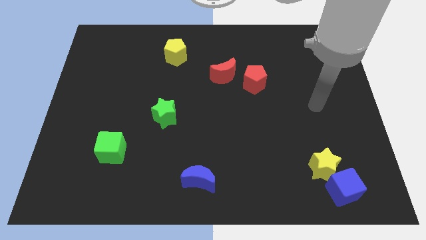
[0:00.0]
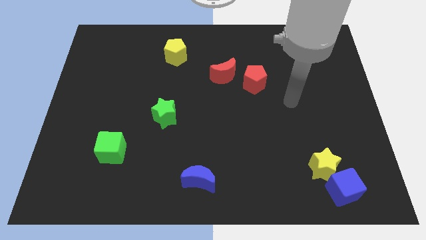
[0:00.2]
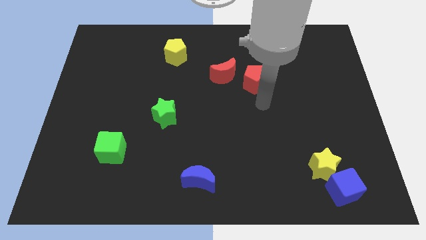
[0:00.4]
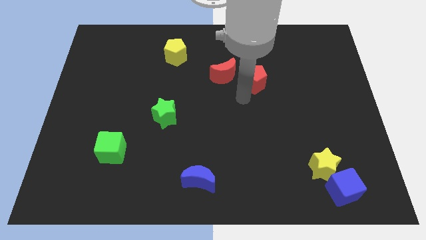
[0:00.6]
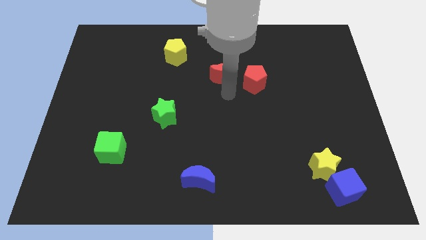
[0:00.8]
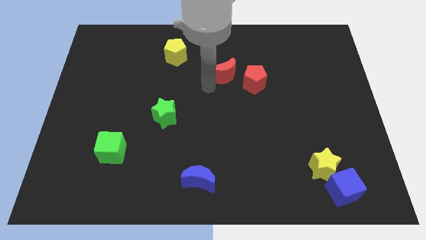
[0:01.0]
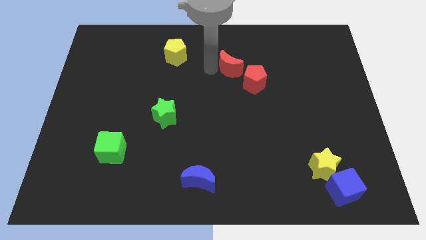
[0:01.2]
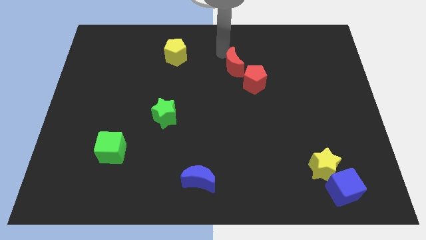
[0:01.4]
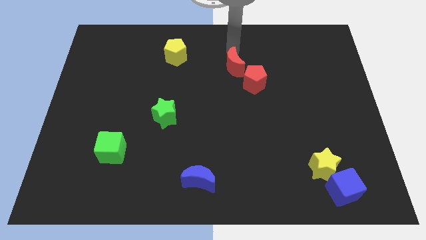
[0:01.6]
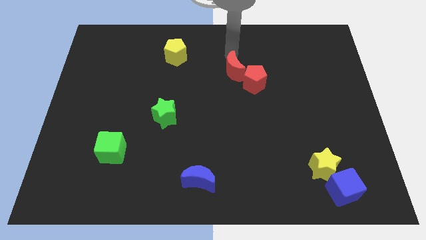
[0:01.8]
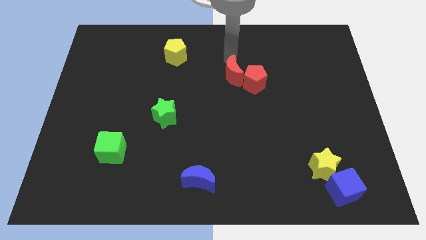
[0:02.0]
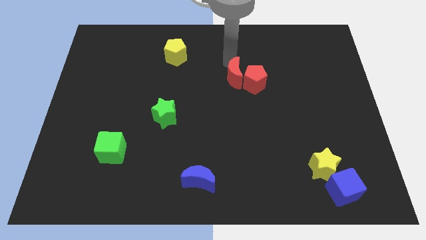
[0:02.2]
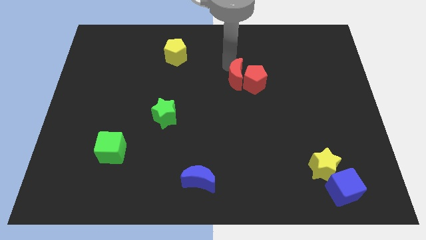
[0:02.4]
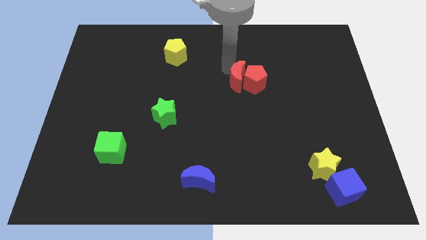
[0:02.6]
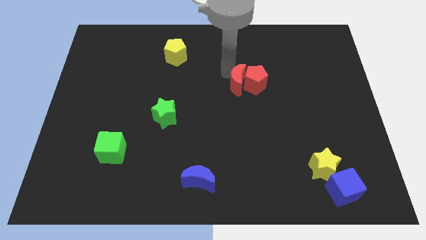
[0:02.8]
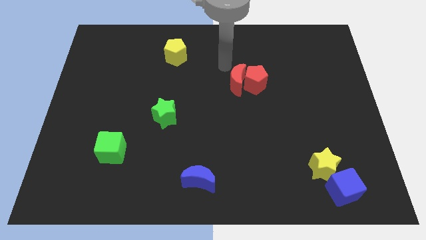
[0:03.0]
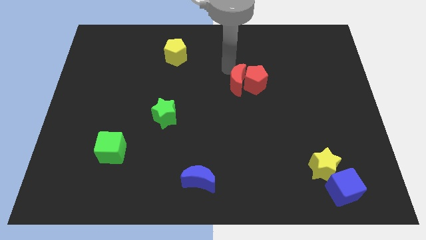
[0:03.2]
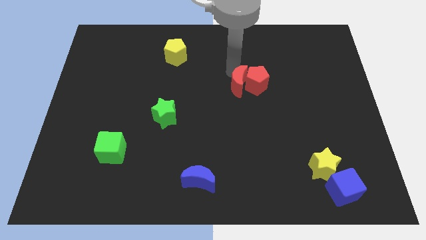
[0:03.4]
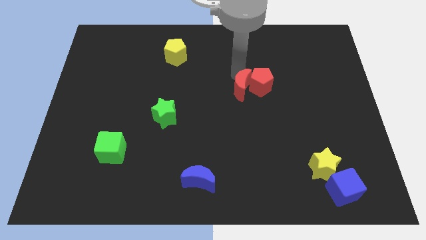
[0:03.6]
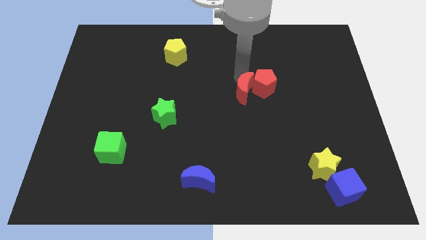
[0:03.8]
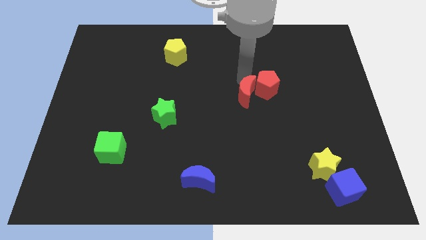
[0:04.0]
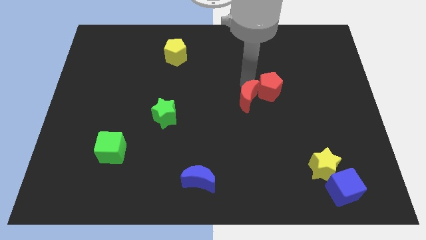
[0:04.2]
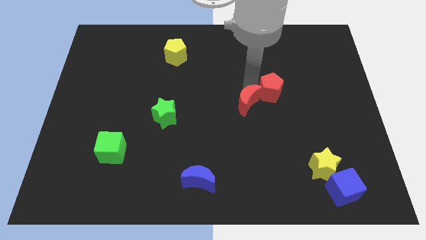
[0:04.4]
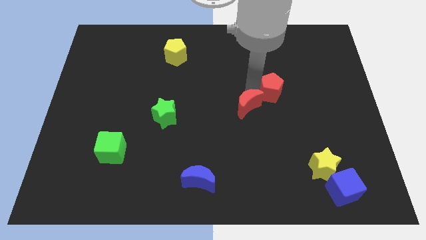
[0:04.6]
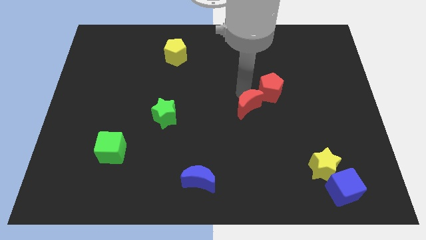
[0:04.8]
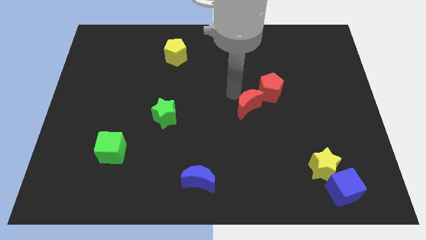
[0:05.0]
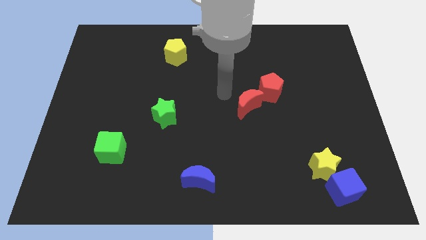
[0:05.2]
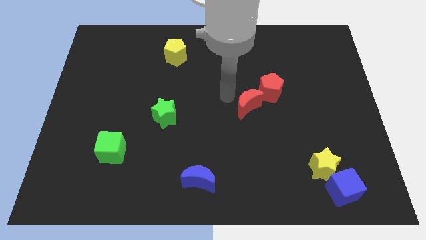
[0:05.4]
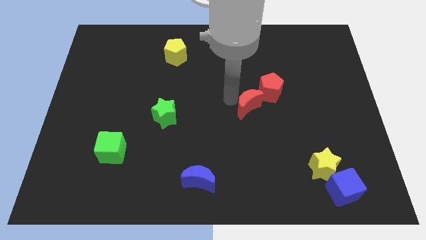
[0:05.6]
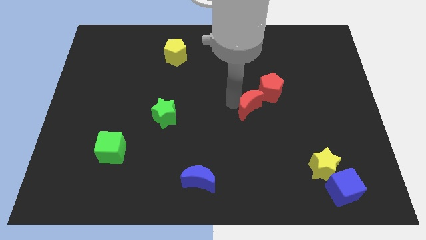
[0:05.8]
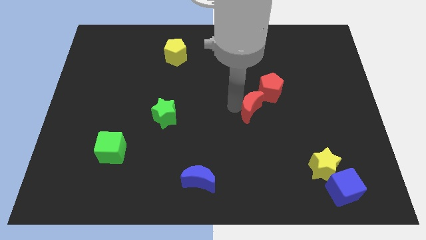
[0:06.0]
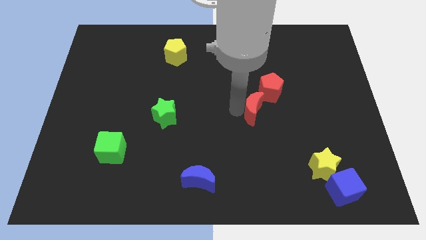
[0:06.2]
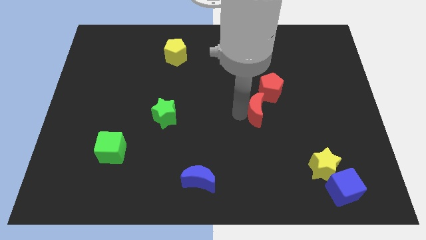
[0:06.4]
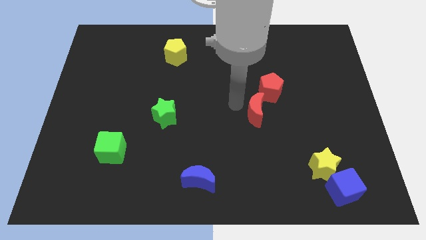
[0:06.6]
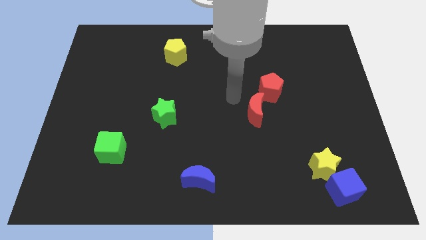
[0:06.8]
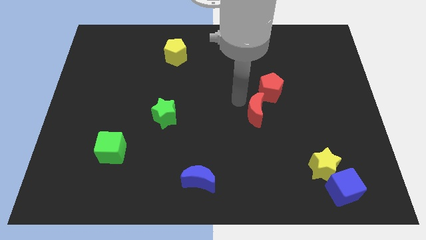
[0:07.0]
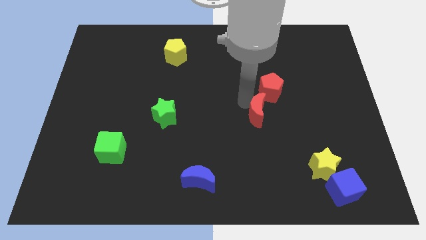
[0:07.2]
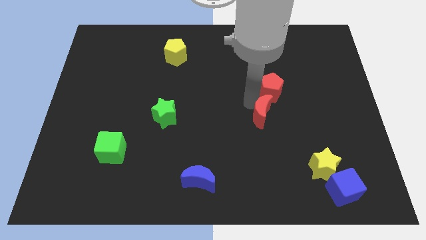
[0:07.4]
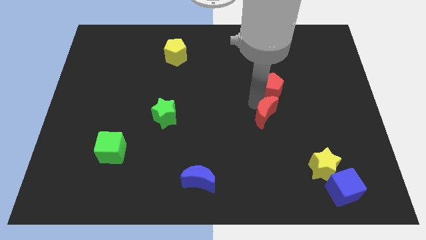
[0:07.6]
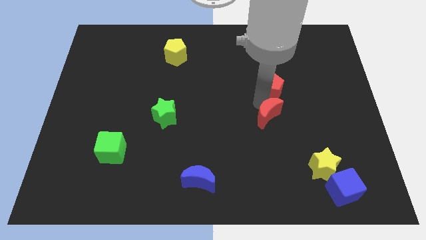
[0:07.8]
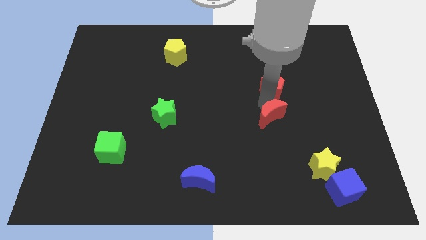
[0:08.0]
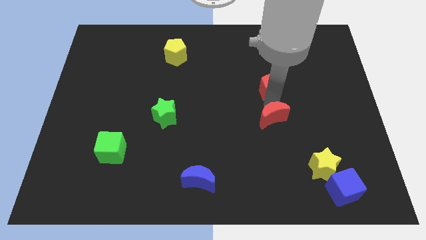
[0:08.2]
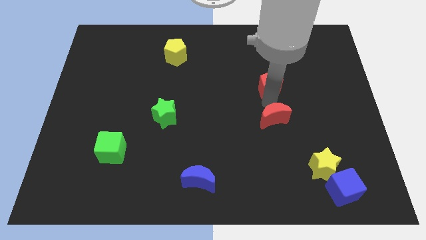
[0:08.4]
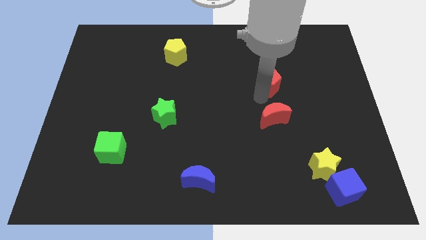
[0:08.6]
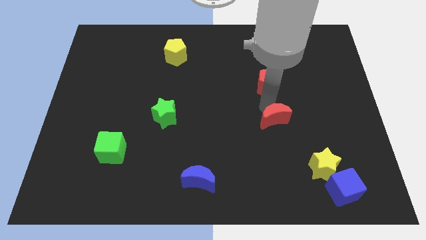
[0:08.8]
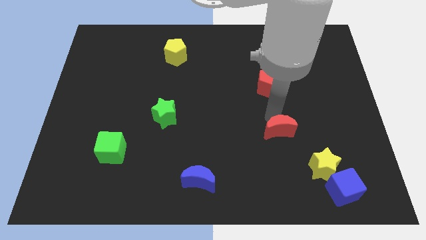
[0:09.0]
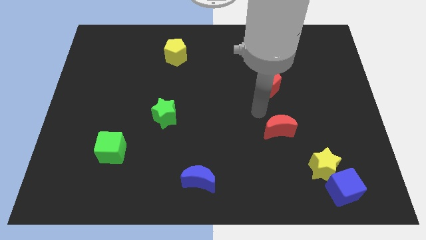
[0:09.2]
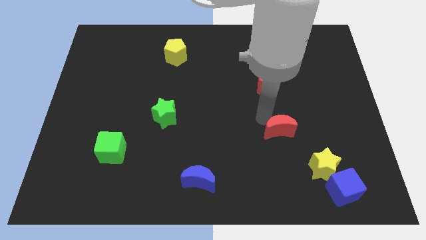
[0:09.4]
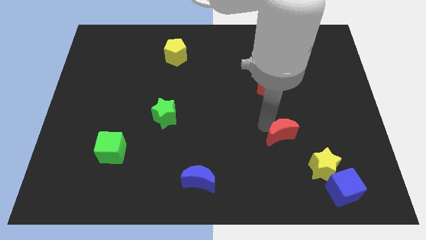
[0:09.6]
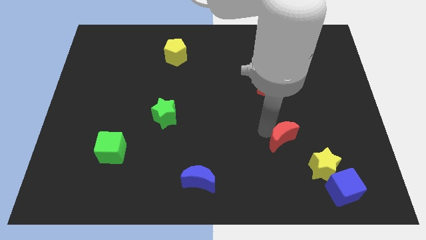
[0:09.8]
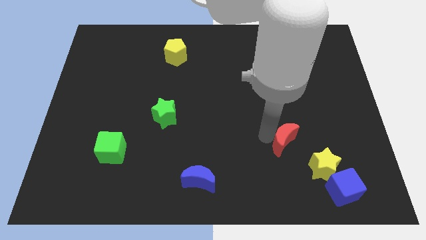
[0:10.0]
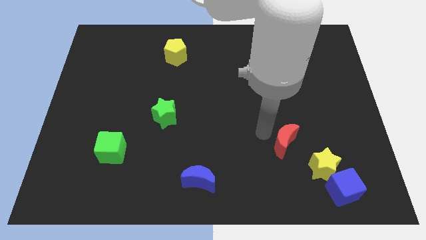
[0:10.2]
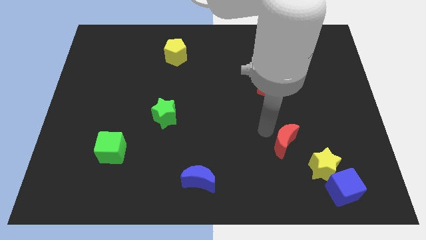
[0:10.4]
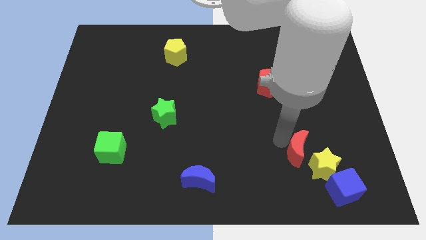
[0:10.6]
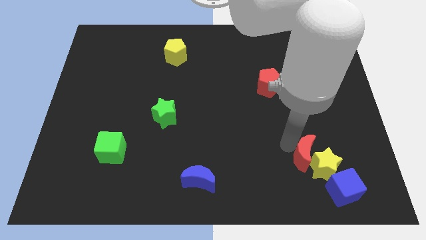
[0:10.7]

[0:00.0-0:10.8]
slide the red moon close to the yellow star
